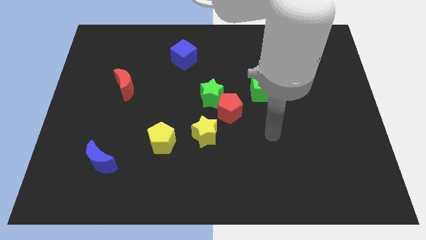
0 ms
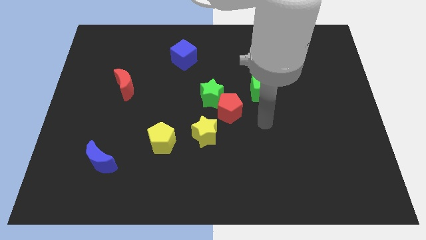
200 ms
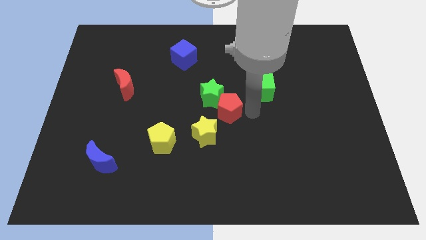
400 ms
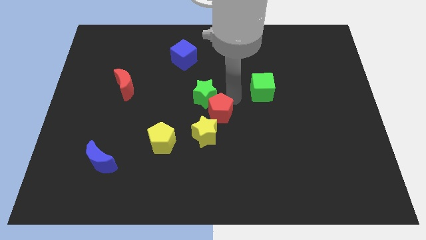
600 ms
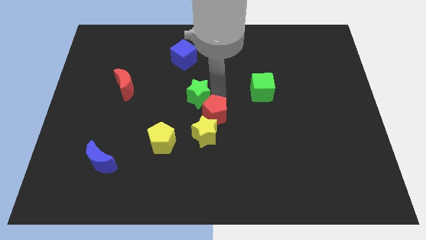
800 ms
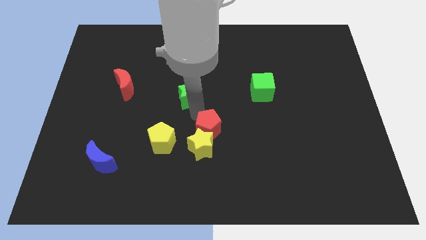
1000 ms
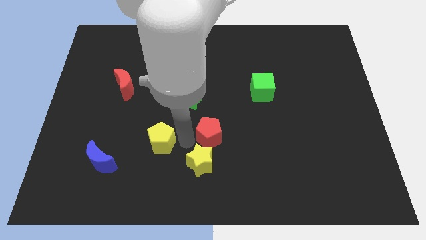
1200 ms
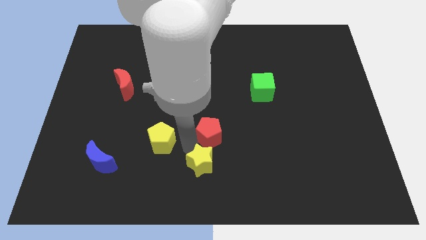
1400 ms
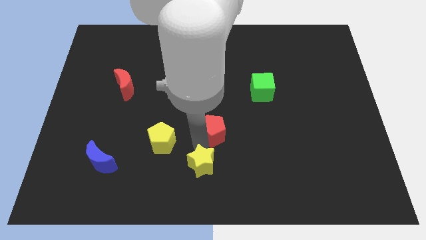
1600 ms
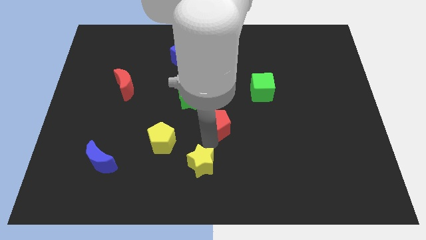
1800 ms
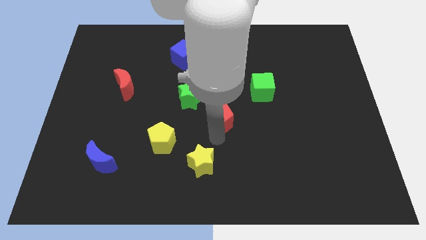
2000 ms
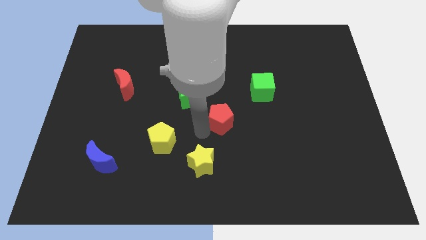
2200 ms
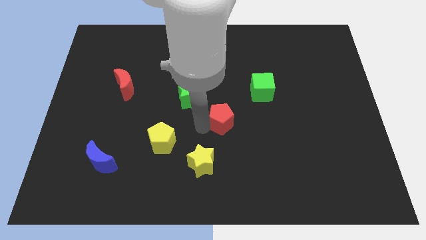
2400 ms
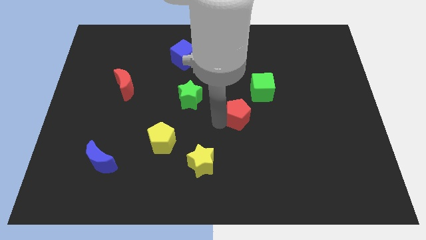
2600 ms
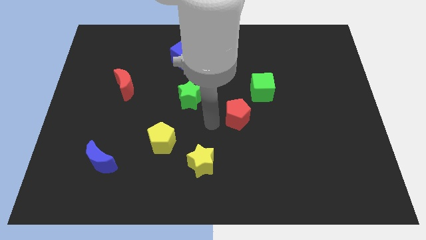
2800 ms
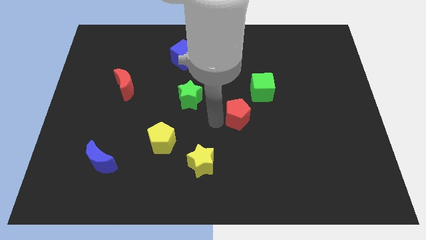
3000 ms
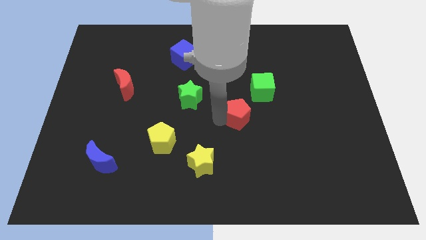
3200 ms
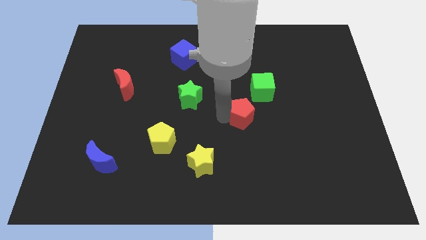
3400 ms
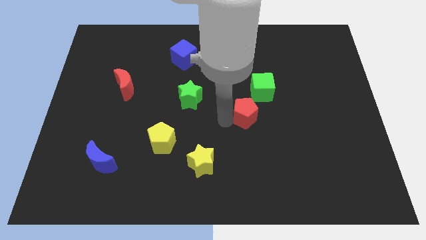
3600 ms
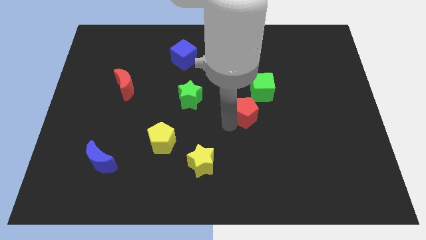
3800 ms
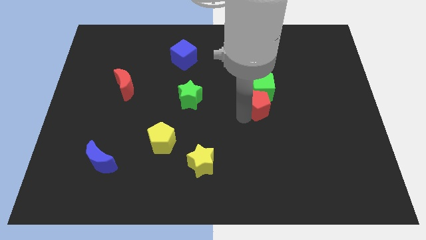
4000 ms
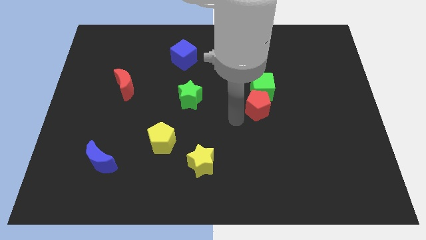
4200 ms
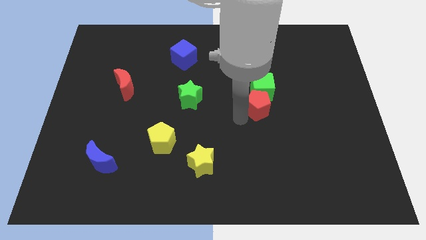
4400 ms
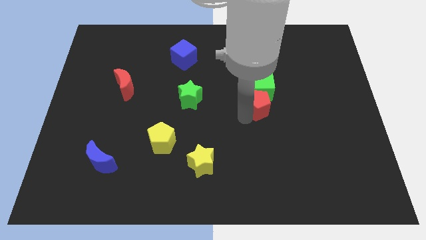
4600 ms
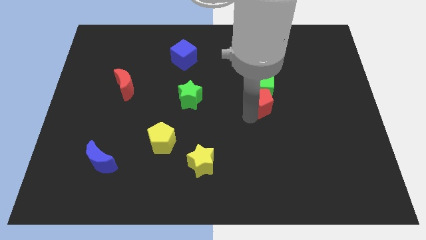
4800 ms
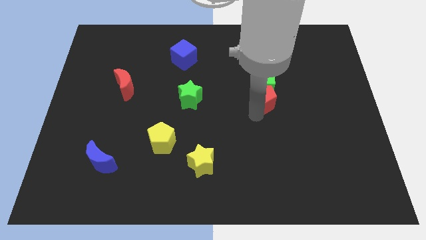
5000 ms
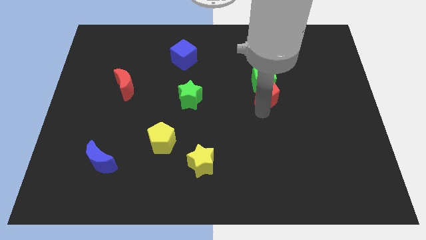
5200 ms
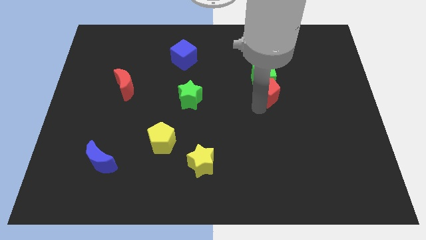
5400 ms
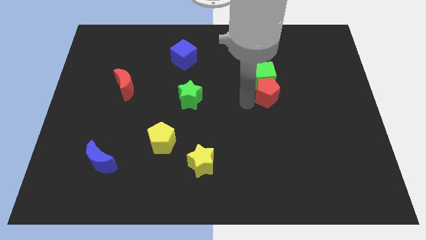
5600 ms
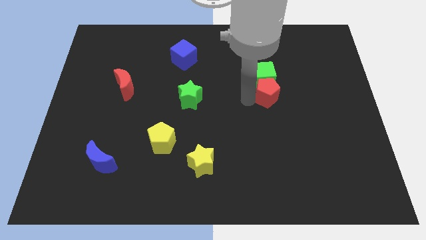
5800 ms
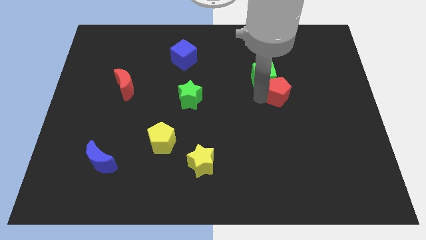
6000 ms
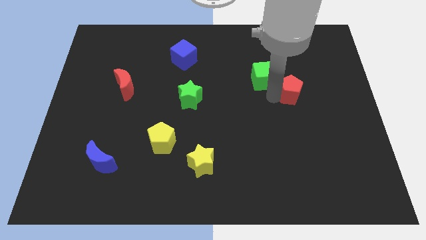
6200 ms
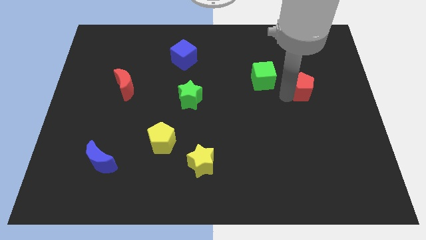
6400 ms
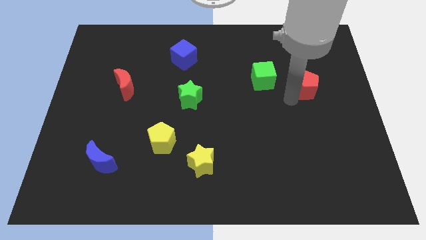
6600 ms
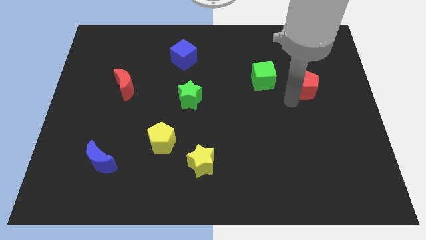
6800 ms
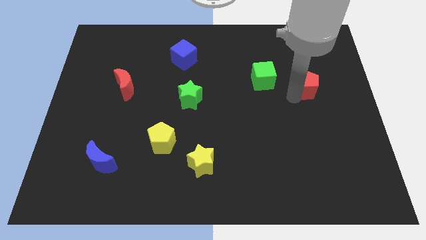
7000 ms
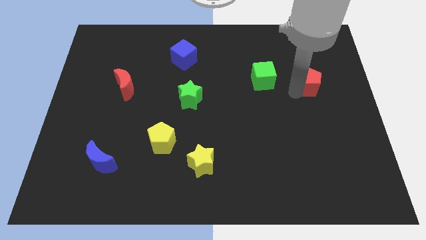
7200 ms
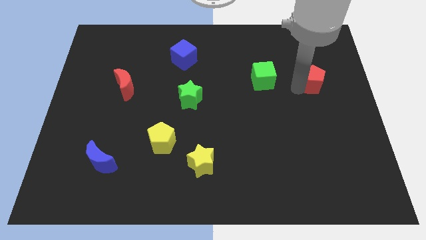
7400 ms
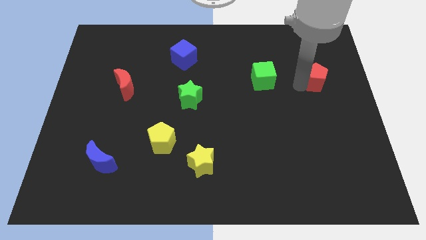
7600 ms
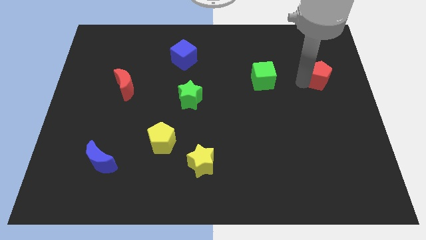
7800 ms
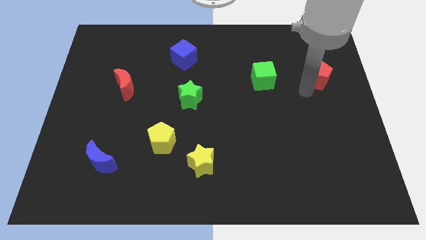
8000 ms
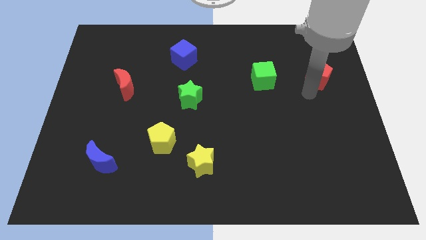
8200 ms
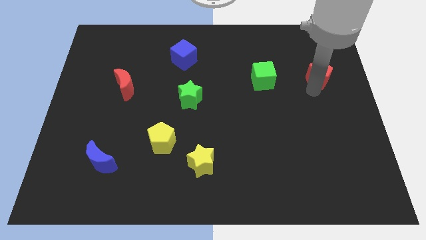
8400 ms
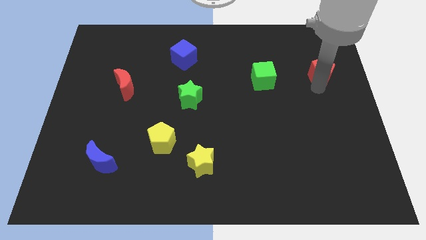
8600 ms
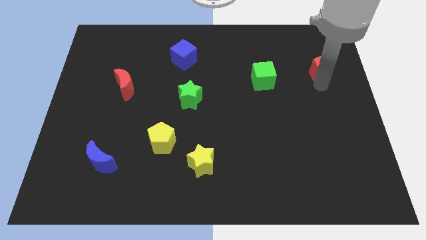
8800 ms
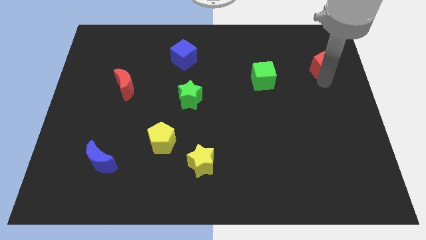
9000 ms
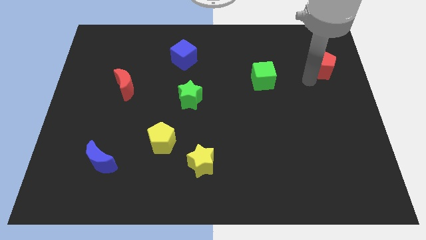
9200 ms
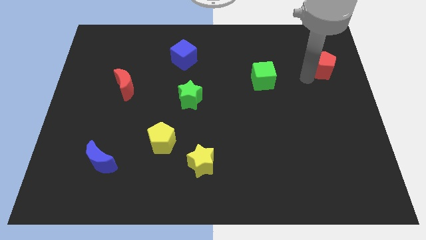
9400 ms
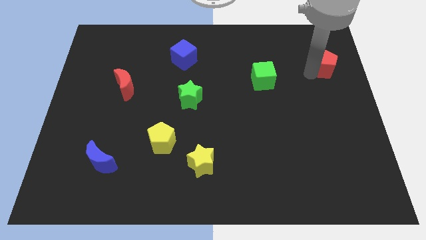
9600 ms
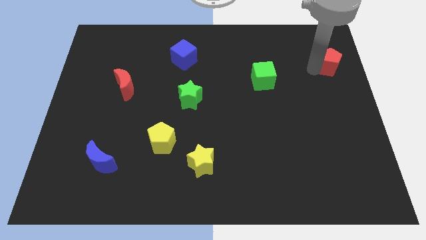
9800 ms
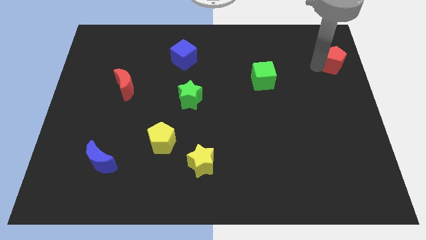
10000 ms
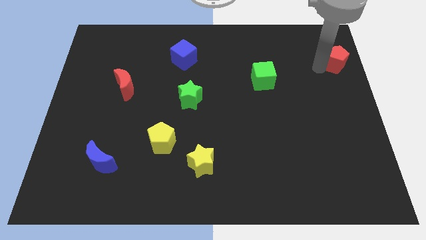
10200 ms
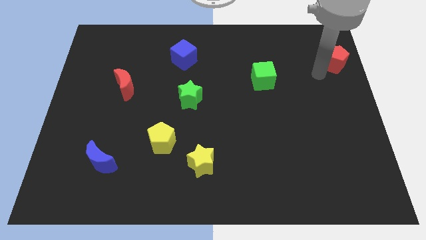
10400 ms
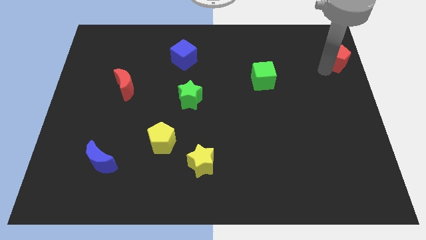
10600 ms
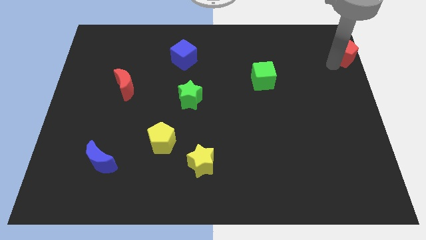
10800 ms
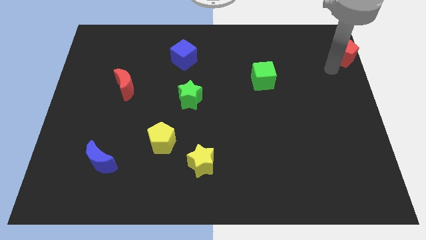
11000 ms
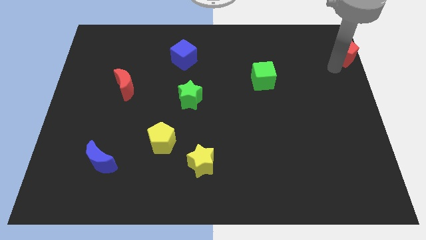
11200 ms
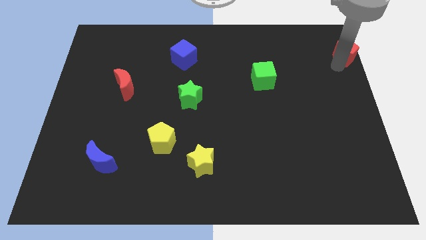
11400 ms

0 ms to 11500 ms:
push the red pentagon to the top right
